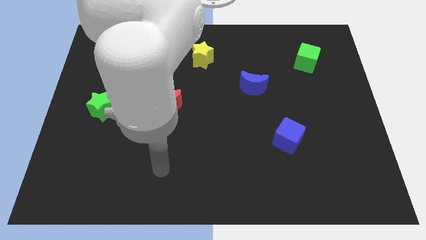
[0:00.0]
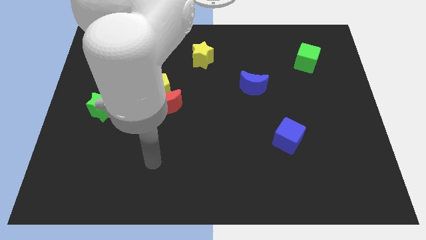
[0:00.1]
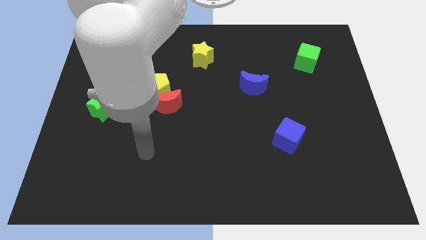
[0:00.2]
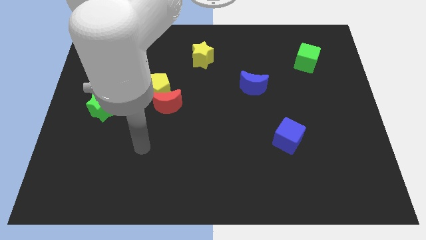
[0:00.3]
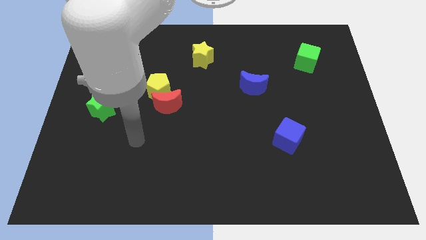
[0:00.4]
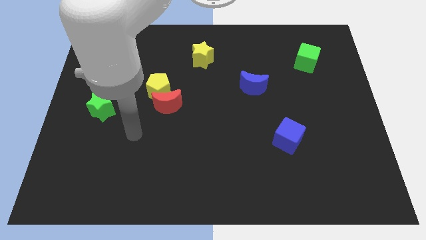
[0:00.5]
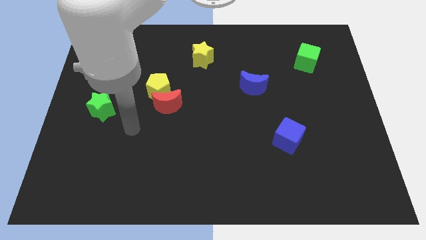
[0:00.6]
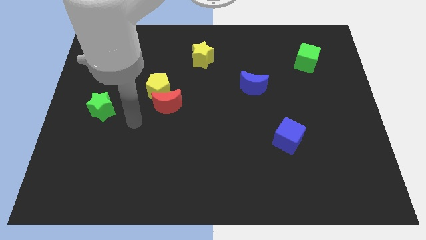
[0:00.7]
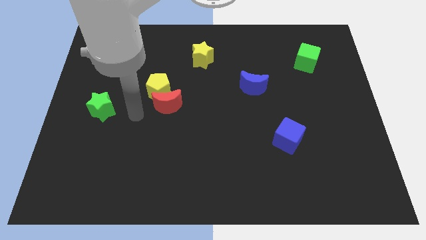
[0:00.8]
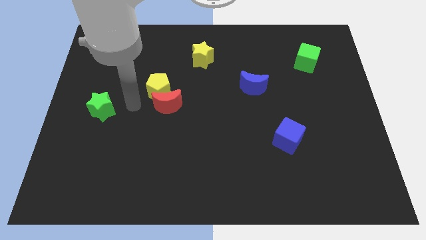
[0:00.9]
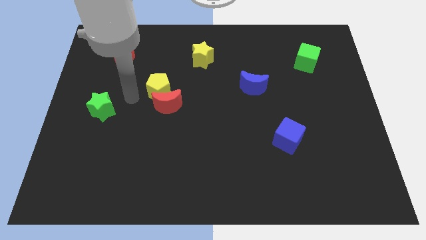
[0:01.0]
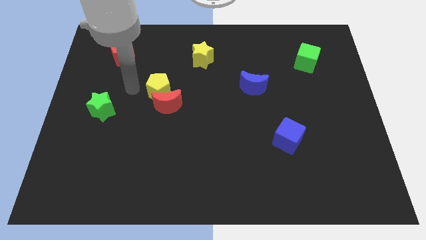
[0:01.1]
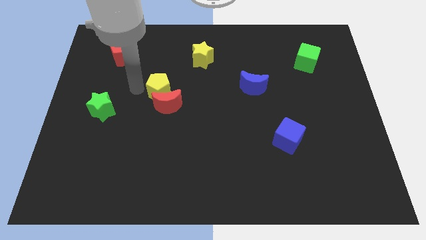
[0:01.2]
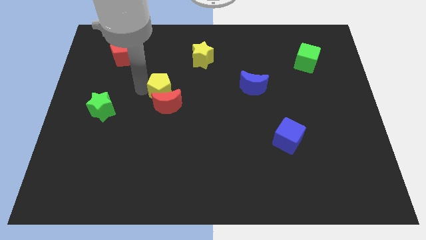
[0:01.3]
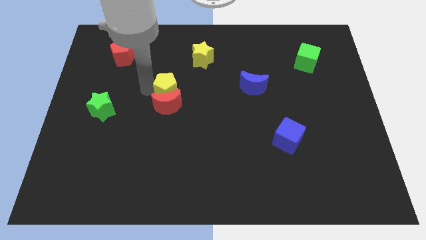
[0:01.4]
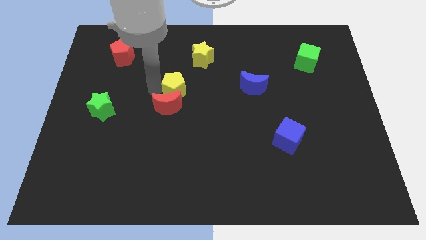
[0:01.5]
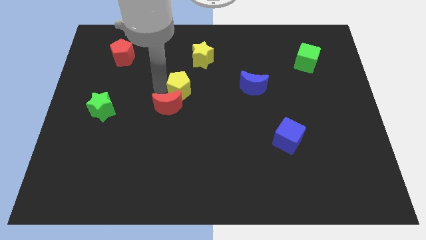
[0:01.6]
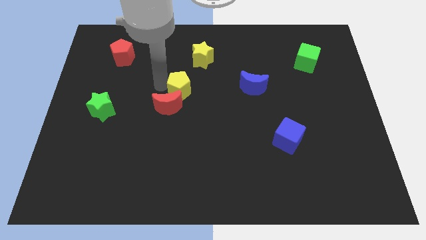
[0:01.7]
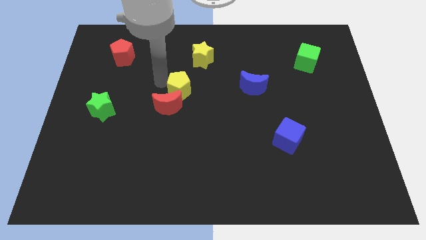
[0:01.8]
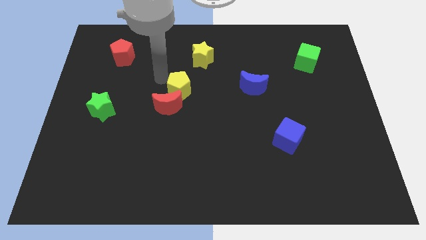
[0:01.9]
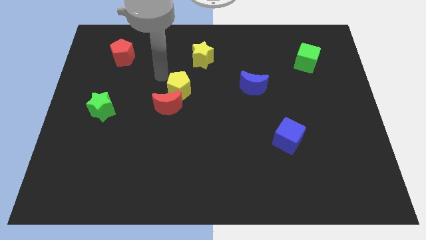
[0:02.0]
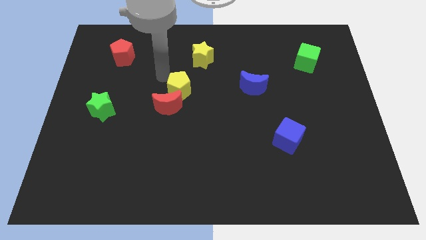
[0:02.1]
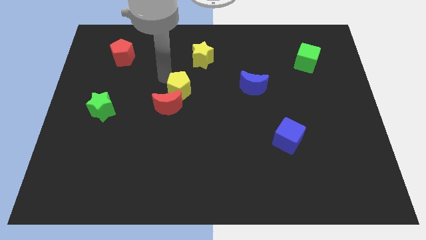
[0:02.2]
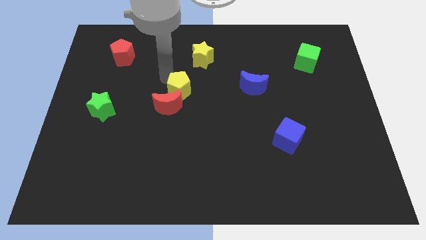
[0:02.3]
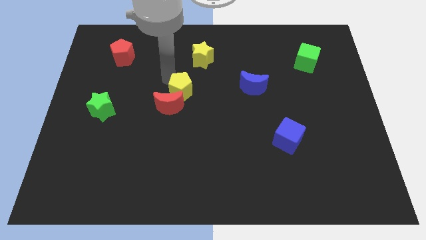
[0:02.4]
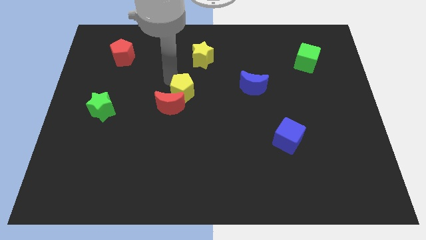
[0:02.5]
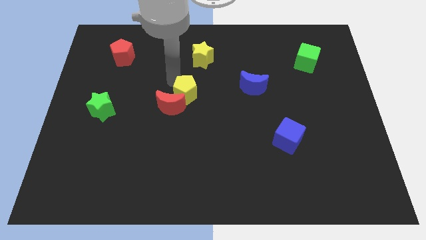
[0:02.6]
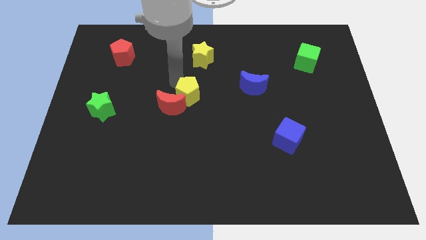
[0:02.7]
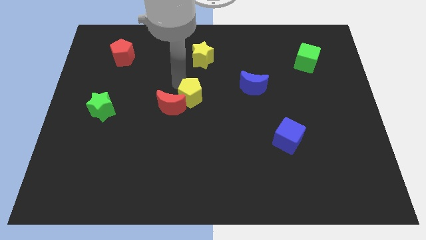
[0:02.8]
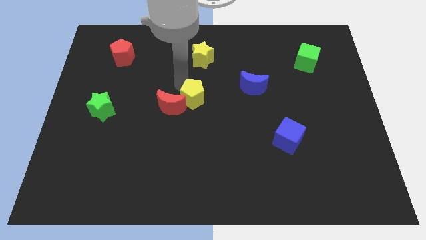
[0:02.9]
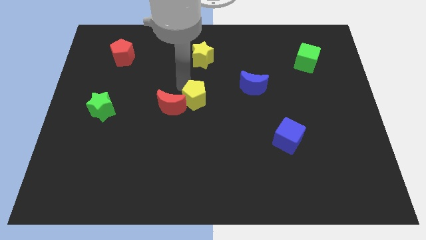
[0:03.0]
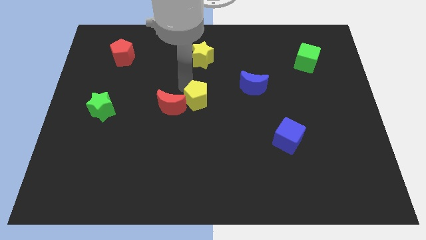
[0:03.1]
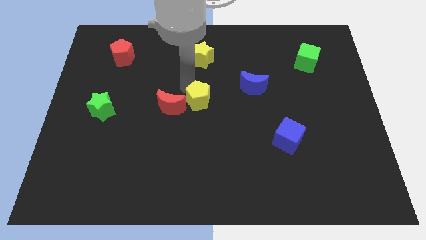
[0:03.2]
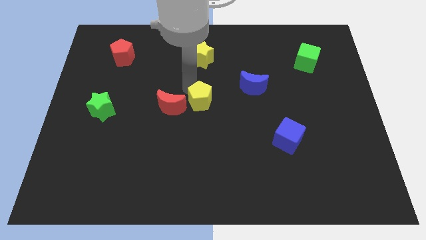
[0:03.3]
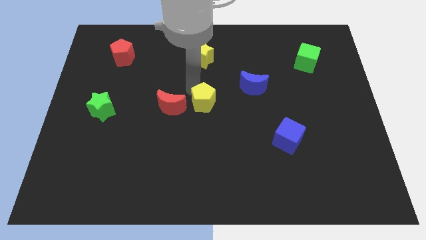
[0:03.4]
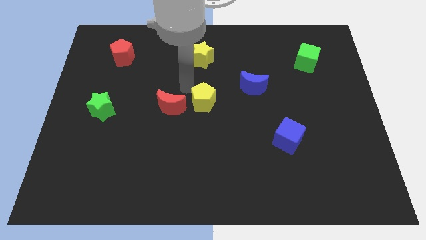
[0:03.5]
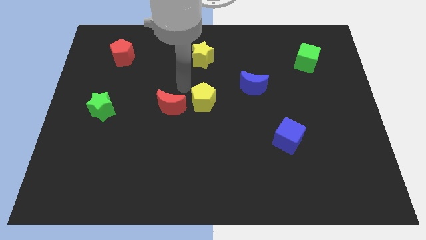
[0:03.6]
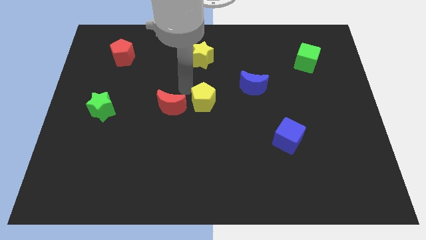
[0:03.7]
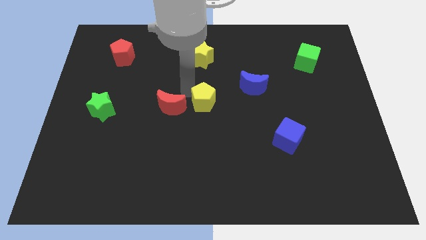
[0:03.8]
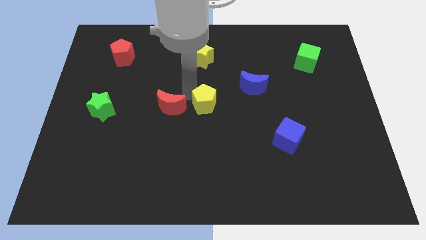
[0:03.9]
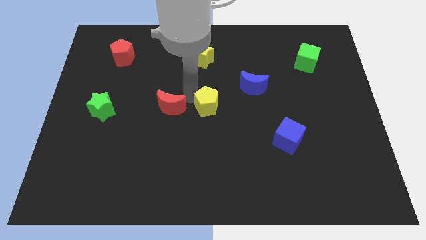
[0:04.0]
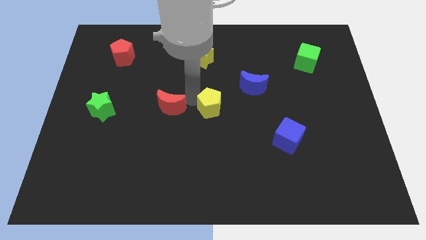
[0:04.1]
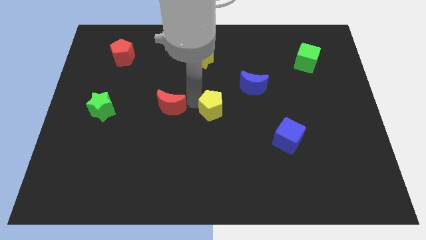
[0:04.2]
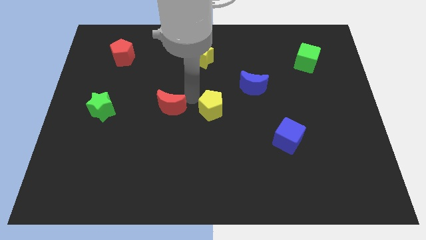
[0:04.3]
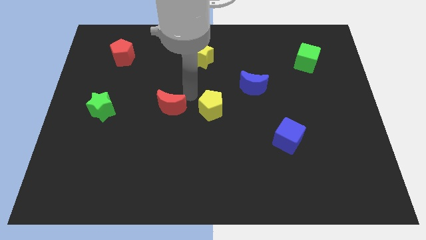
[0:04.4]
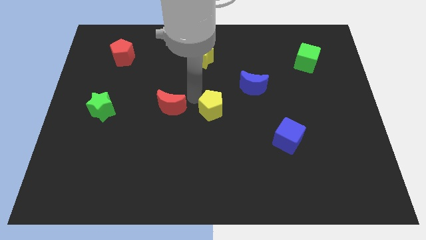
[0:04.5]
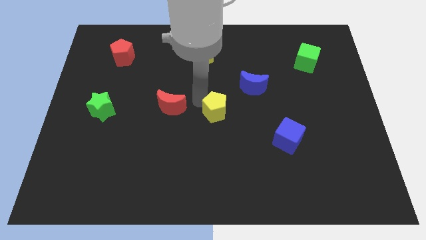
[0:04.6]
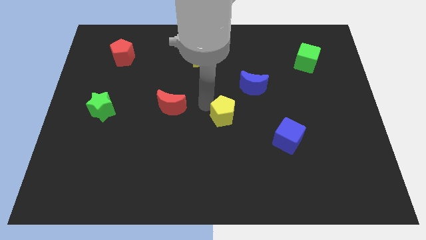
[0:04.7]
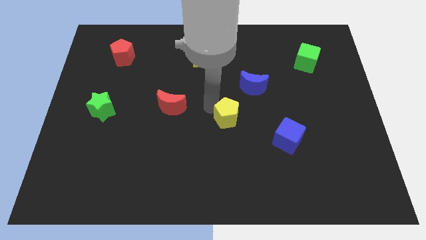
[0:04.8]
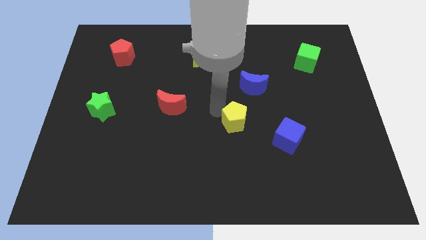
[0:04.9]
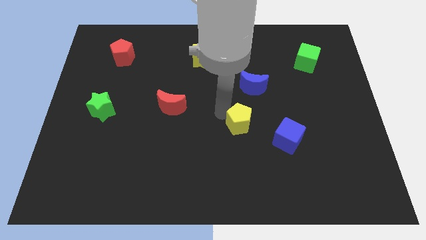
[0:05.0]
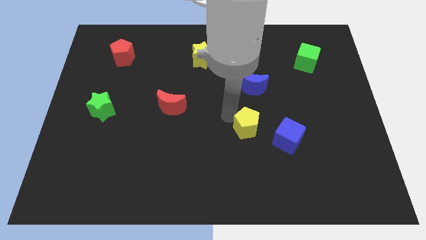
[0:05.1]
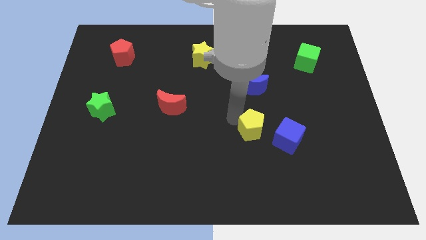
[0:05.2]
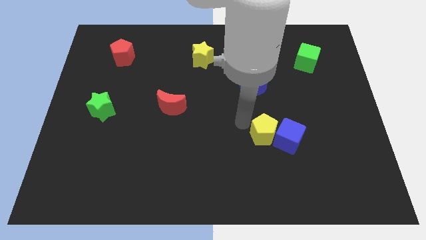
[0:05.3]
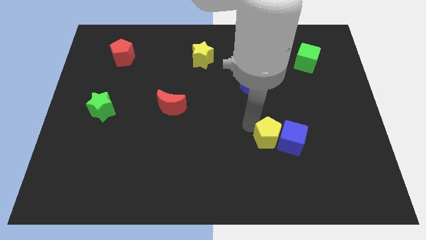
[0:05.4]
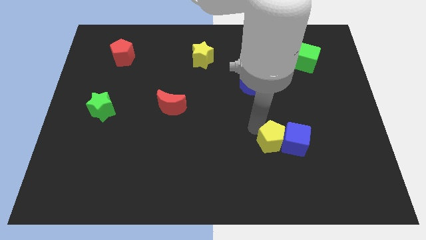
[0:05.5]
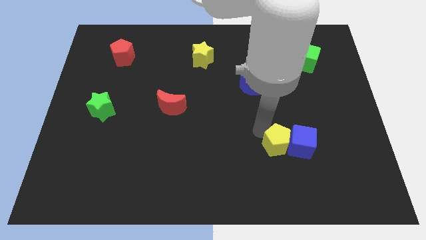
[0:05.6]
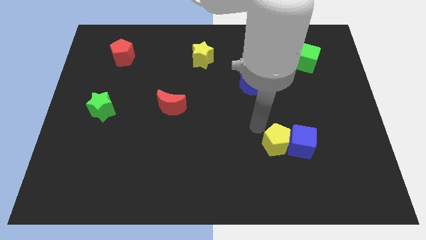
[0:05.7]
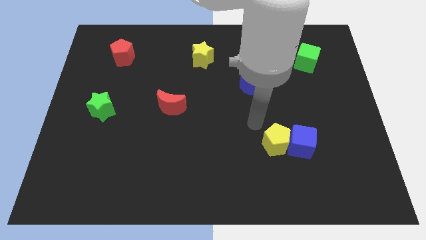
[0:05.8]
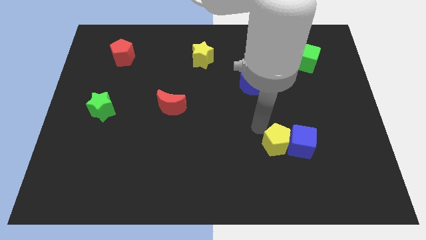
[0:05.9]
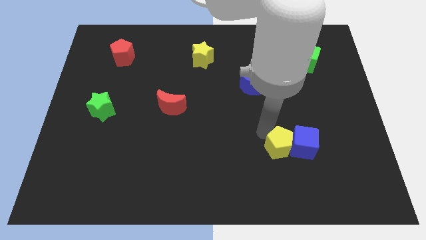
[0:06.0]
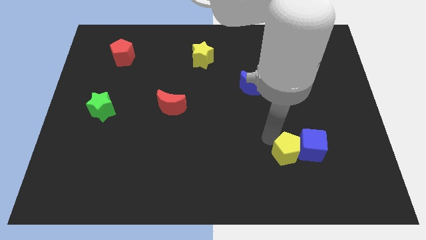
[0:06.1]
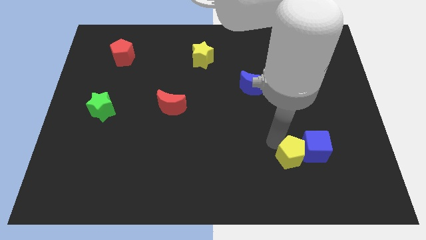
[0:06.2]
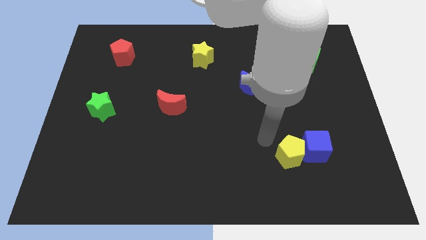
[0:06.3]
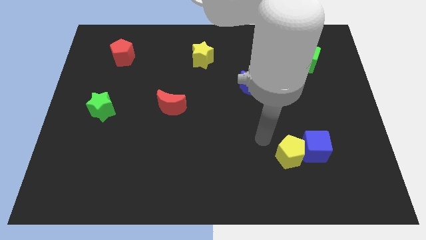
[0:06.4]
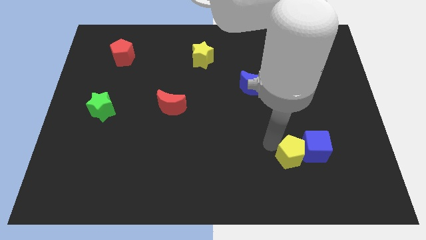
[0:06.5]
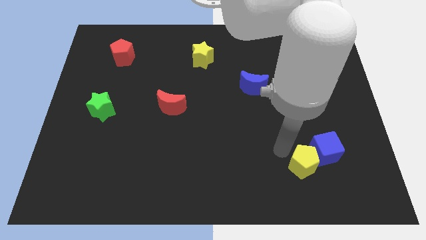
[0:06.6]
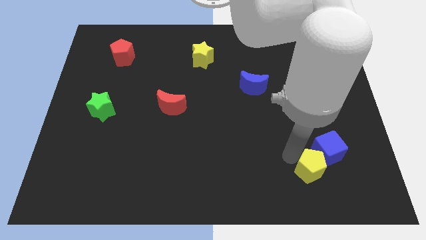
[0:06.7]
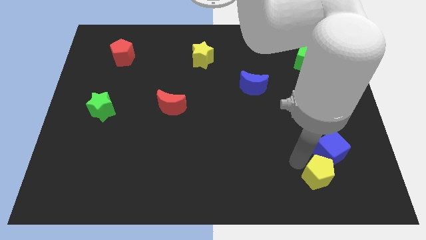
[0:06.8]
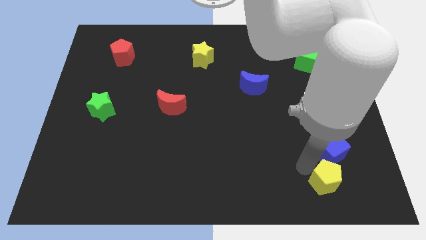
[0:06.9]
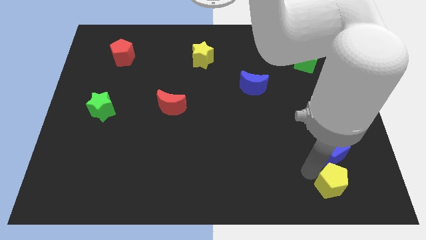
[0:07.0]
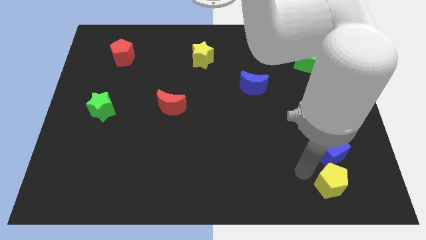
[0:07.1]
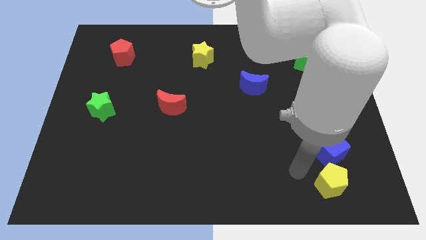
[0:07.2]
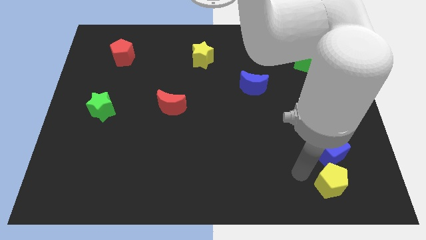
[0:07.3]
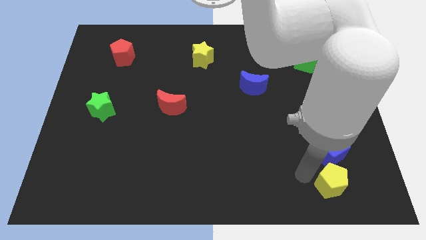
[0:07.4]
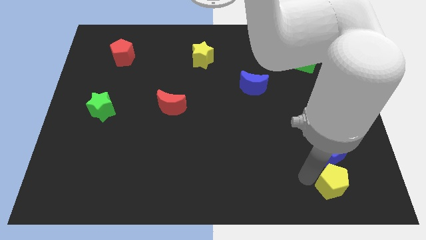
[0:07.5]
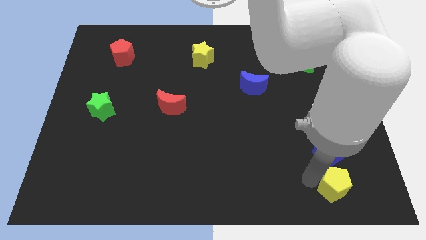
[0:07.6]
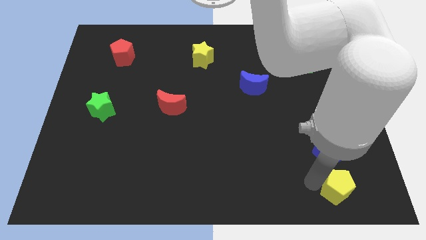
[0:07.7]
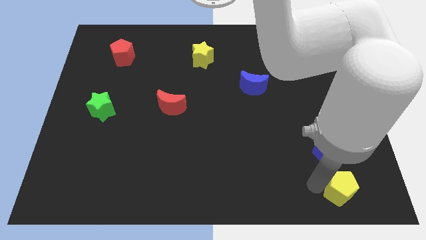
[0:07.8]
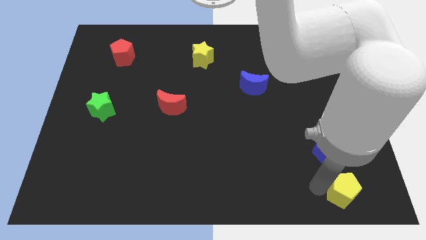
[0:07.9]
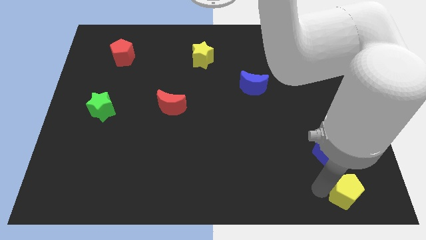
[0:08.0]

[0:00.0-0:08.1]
put the yellow pentagon to the bottom right corner
